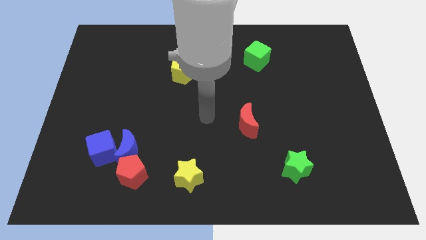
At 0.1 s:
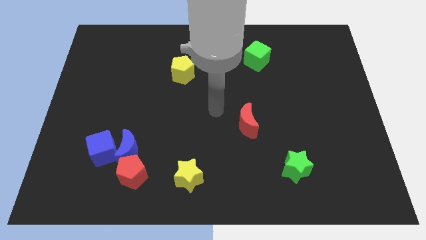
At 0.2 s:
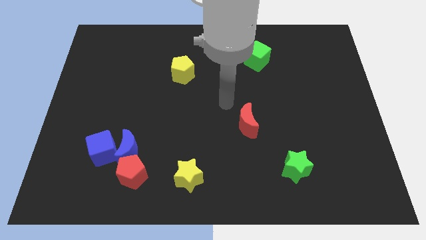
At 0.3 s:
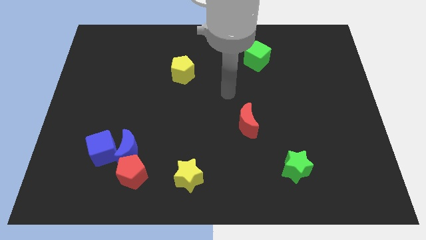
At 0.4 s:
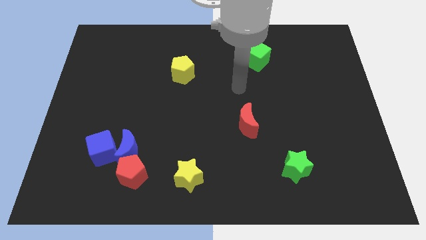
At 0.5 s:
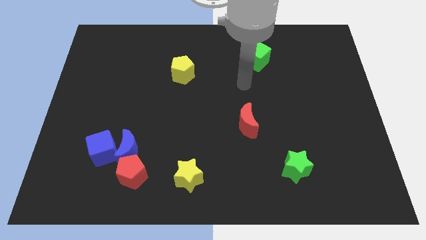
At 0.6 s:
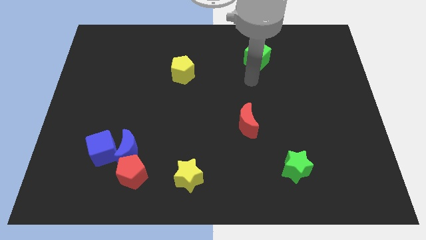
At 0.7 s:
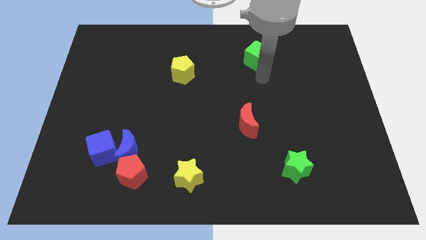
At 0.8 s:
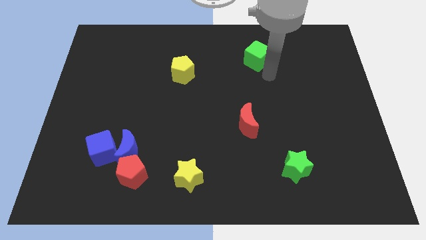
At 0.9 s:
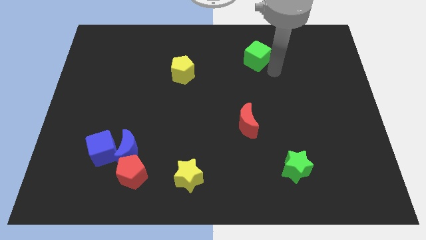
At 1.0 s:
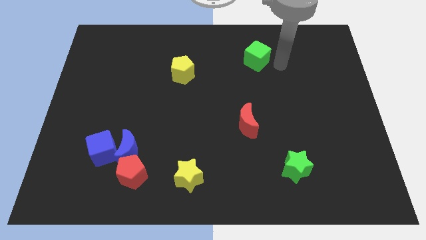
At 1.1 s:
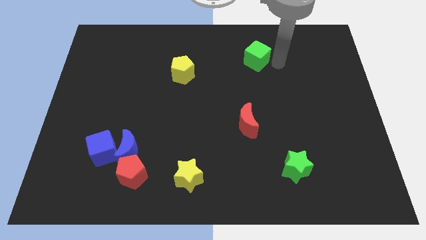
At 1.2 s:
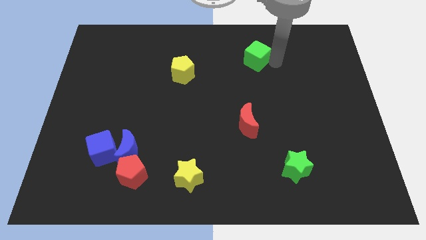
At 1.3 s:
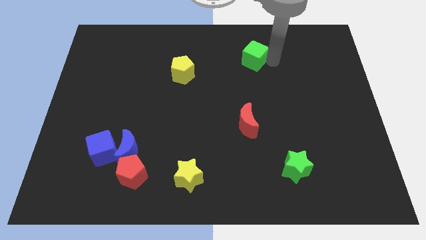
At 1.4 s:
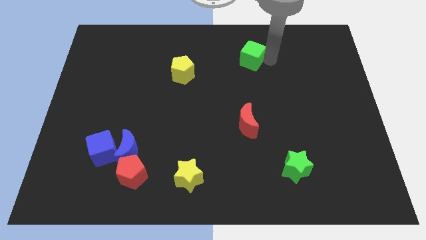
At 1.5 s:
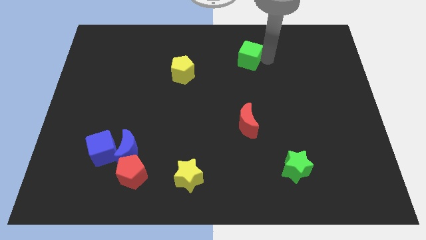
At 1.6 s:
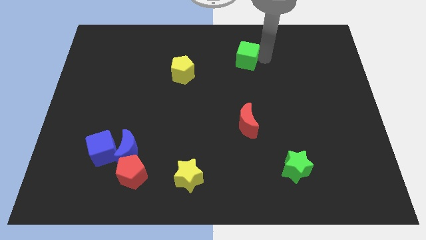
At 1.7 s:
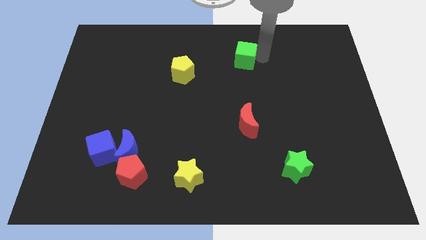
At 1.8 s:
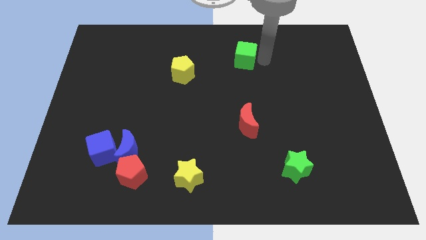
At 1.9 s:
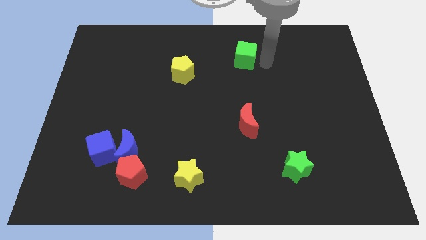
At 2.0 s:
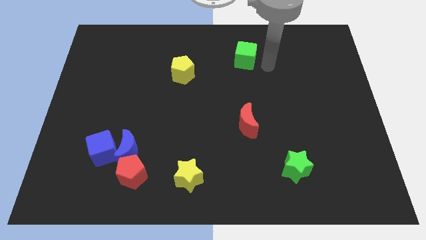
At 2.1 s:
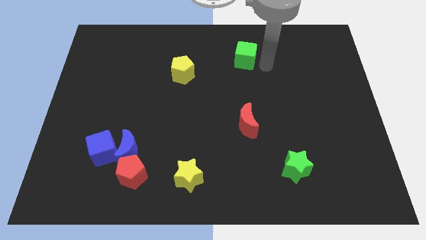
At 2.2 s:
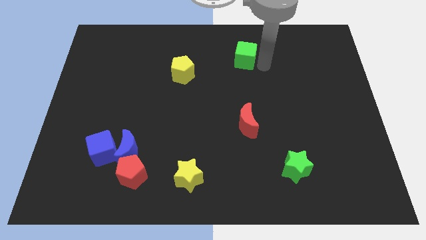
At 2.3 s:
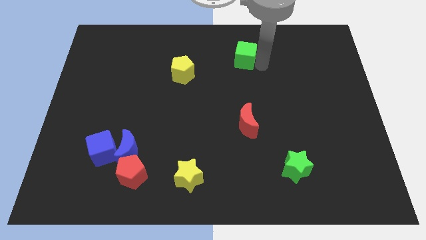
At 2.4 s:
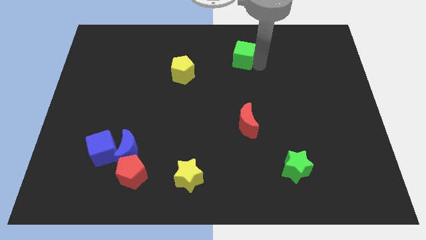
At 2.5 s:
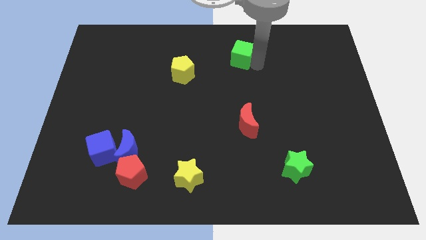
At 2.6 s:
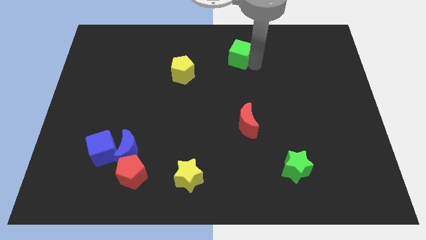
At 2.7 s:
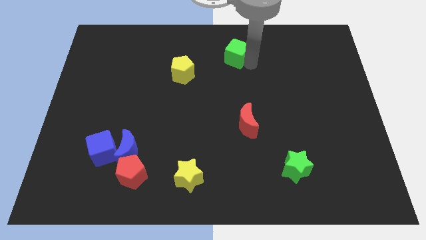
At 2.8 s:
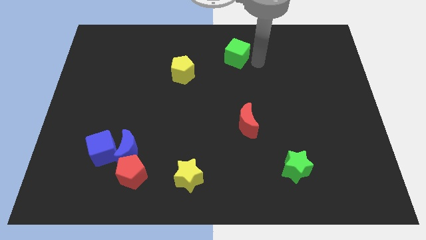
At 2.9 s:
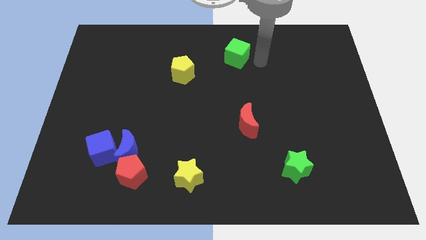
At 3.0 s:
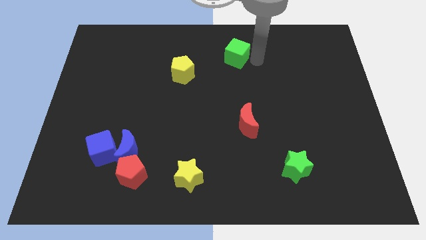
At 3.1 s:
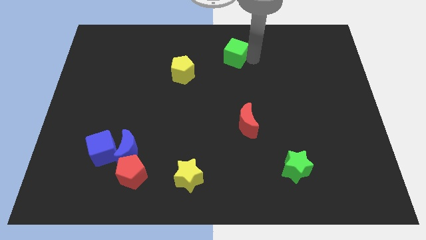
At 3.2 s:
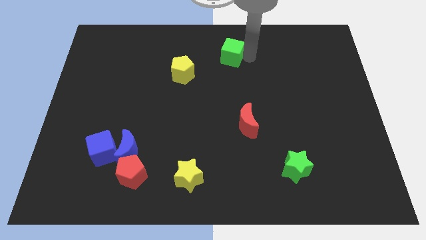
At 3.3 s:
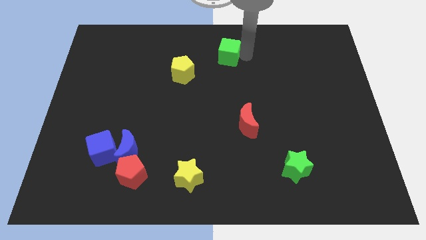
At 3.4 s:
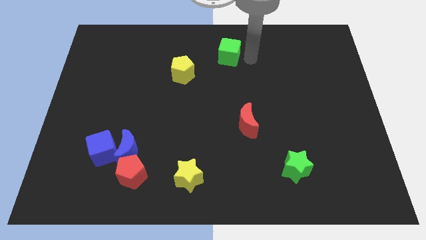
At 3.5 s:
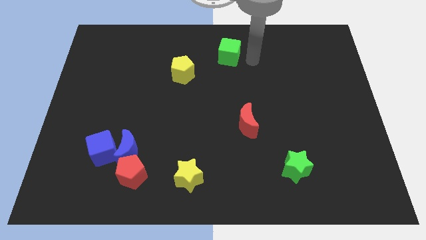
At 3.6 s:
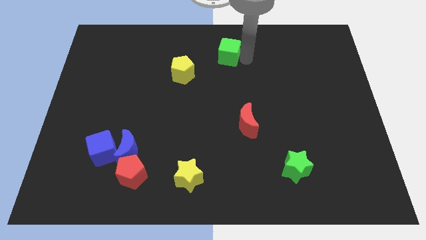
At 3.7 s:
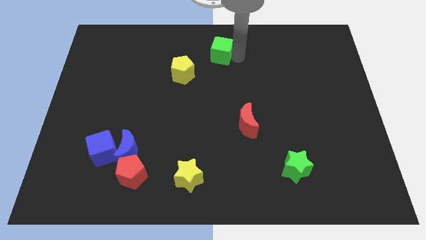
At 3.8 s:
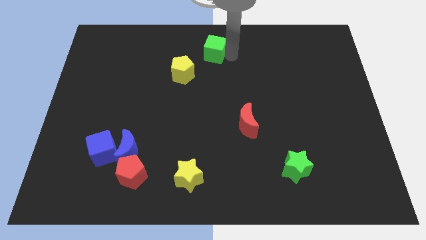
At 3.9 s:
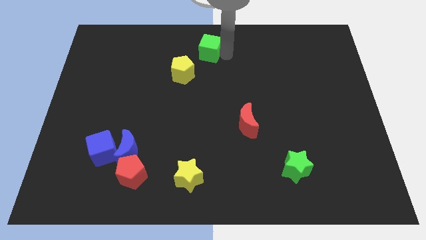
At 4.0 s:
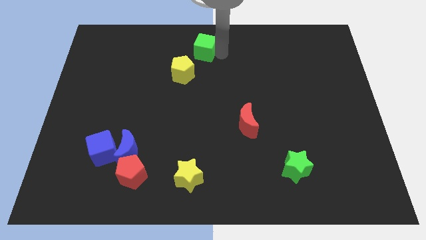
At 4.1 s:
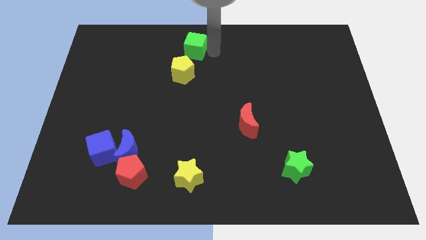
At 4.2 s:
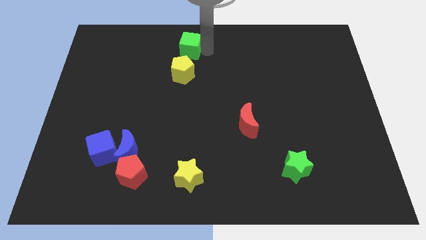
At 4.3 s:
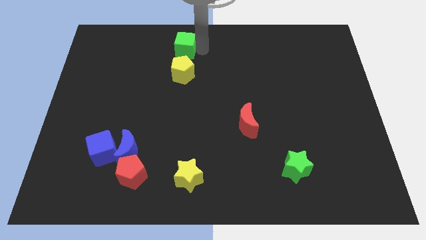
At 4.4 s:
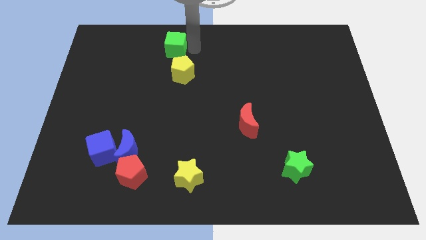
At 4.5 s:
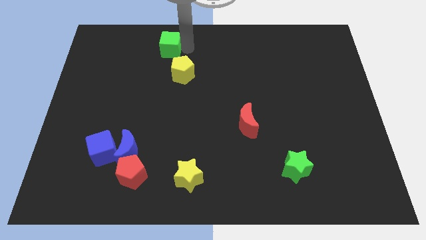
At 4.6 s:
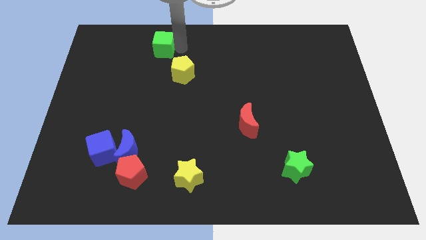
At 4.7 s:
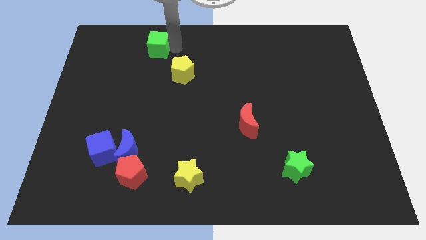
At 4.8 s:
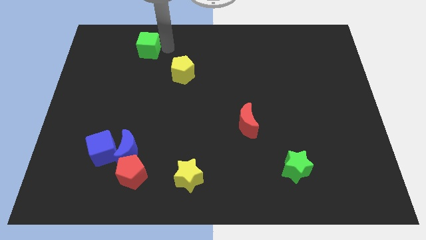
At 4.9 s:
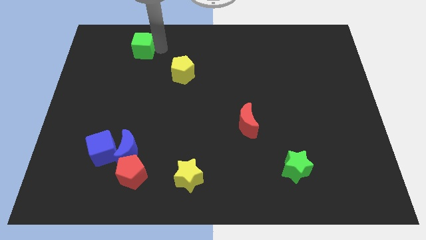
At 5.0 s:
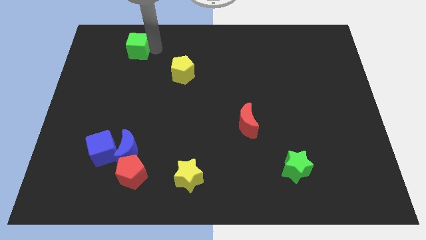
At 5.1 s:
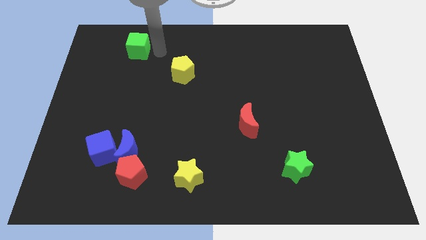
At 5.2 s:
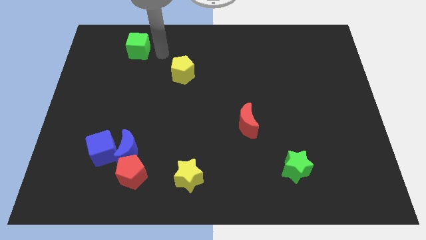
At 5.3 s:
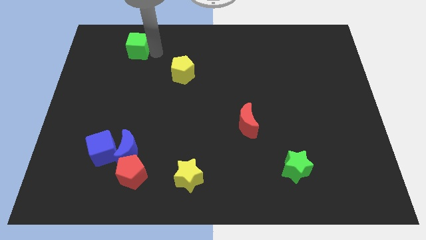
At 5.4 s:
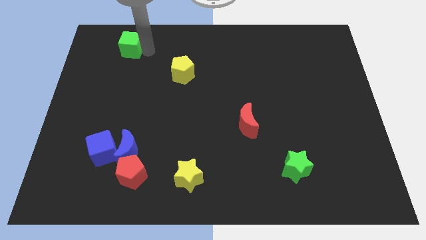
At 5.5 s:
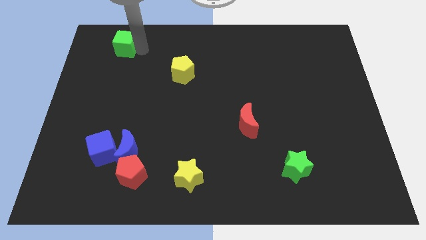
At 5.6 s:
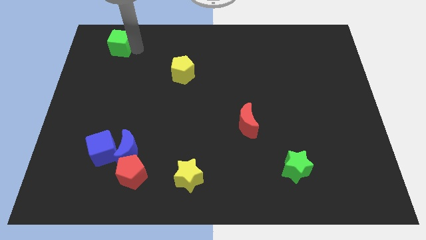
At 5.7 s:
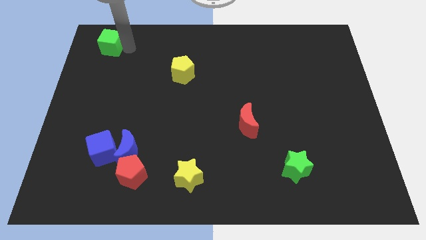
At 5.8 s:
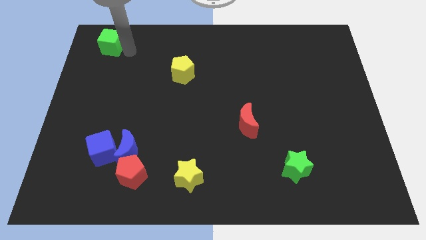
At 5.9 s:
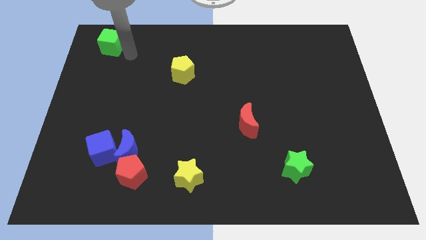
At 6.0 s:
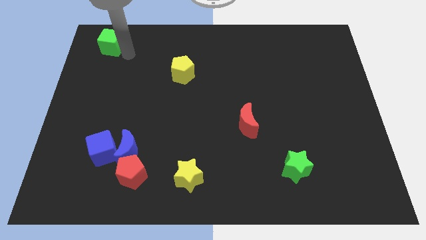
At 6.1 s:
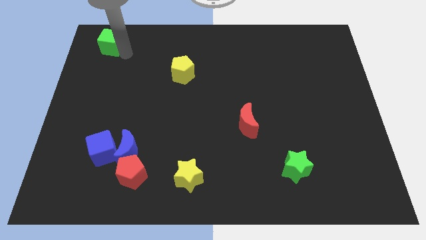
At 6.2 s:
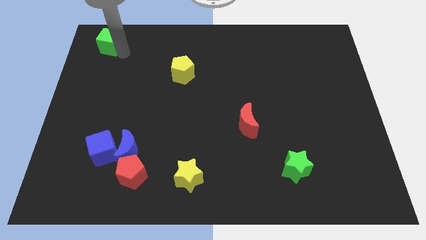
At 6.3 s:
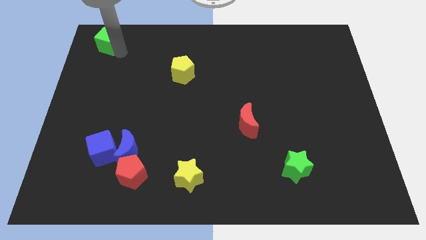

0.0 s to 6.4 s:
put the green cube to the upper left corner
